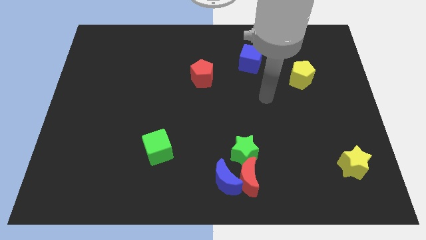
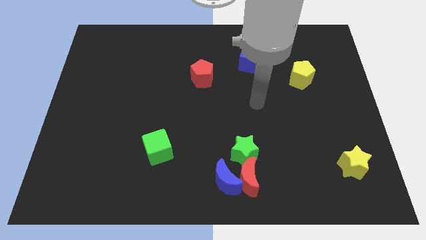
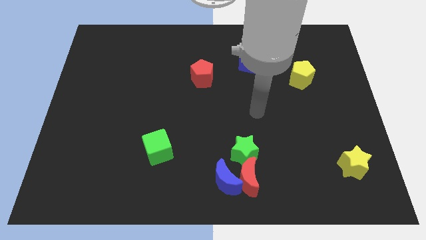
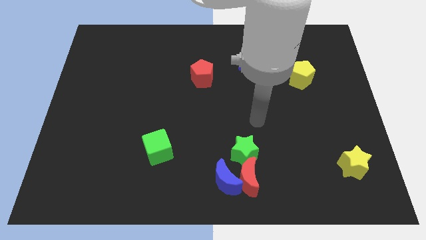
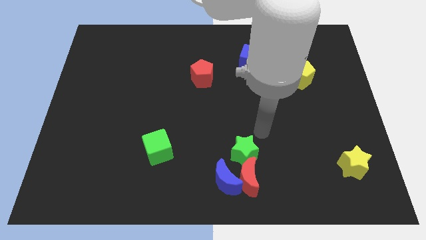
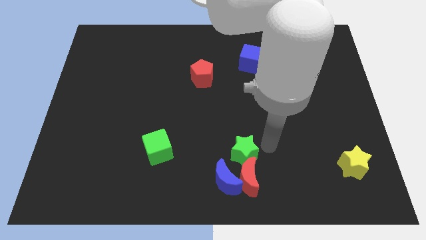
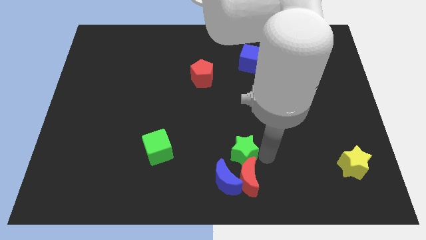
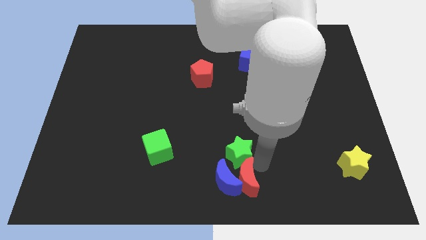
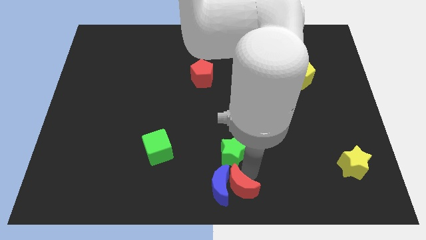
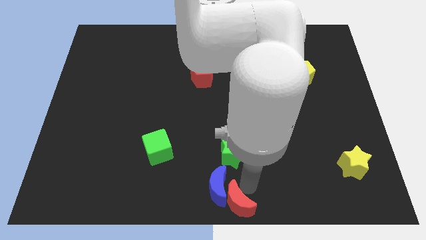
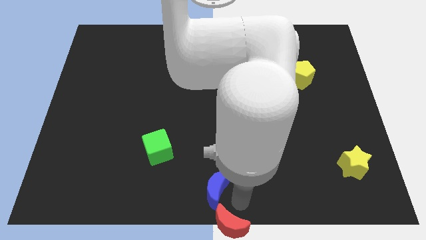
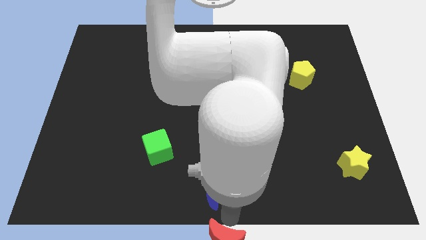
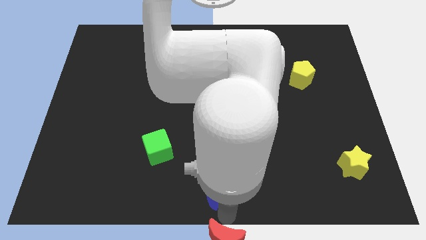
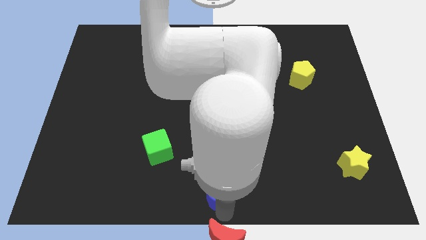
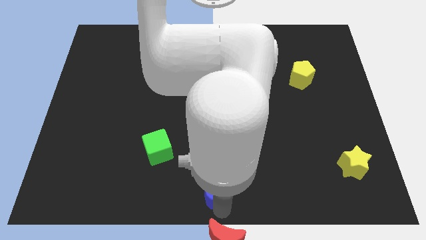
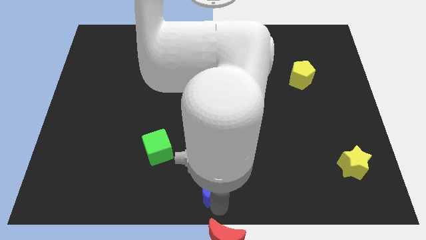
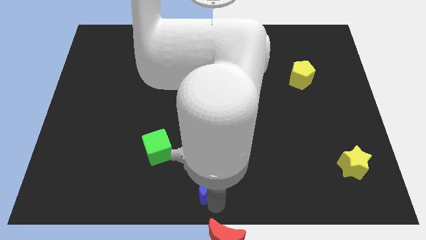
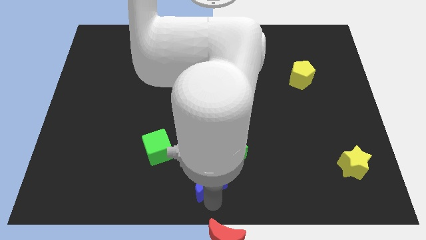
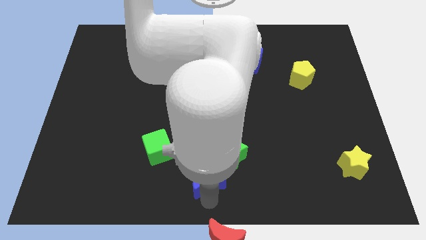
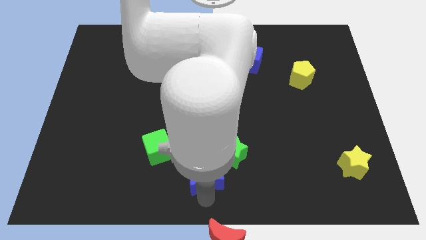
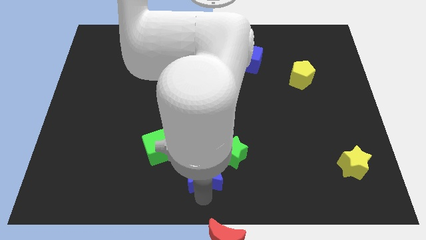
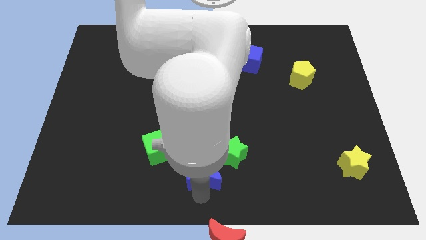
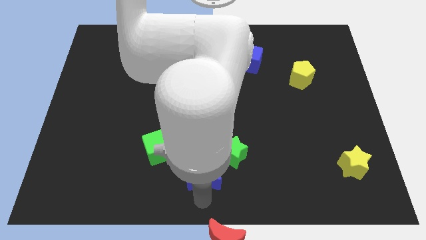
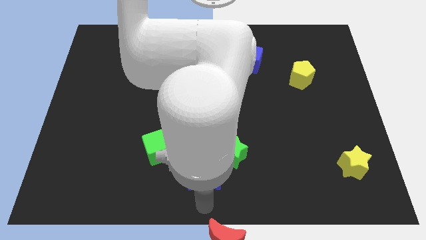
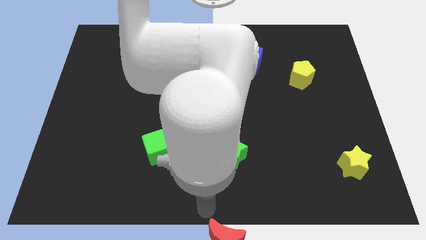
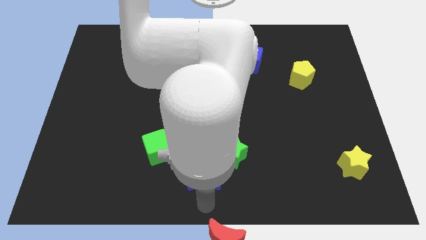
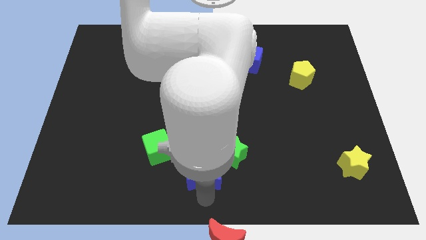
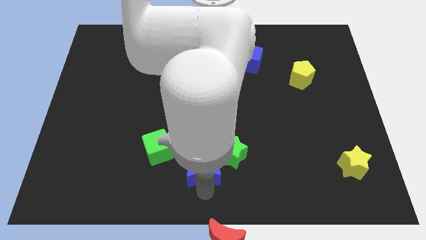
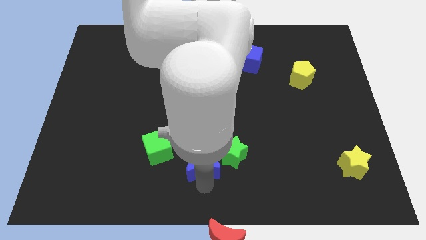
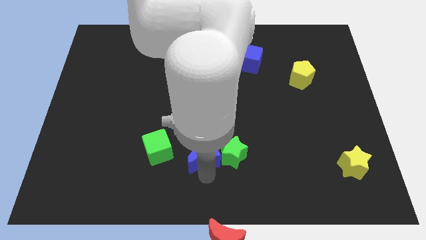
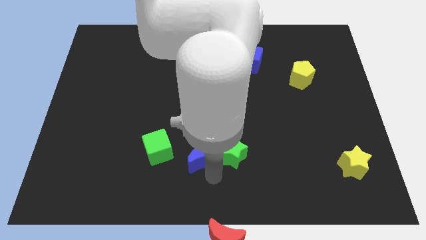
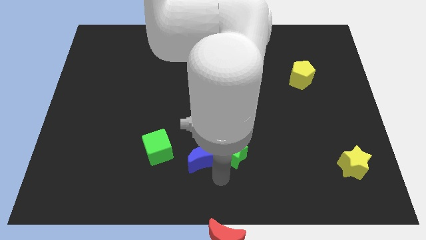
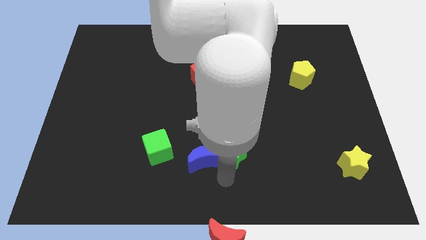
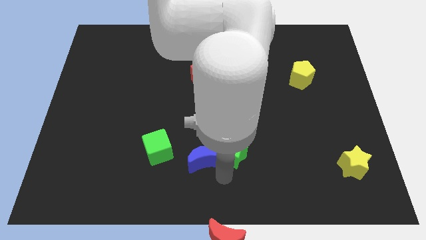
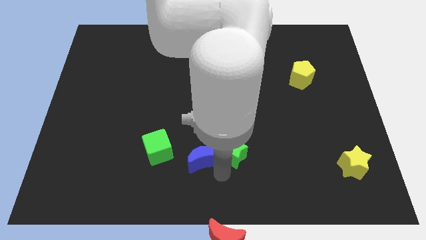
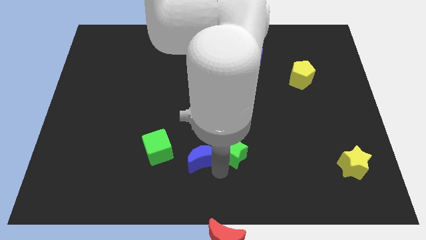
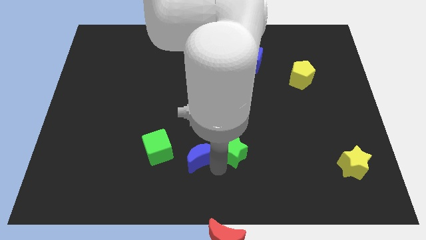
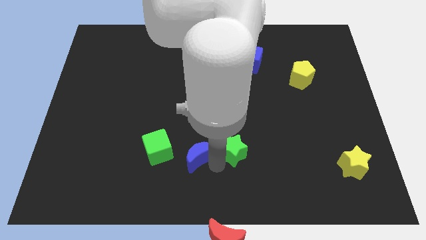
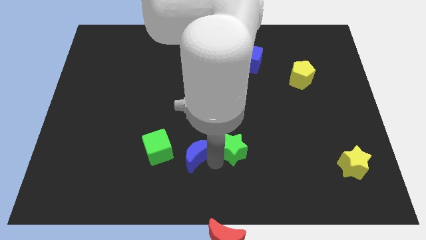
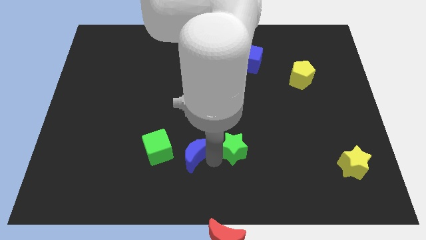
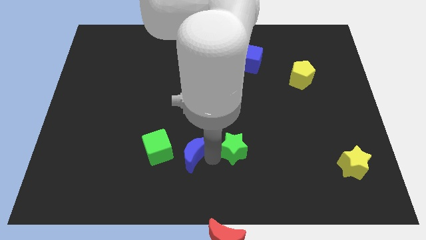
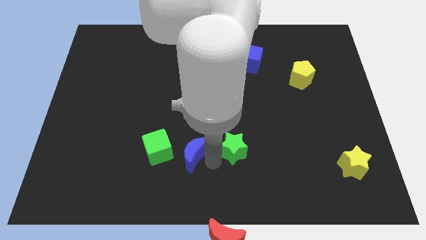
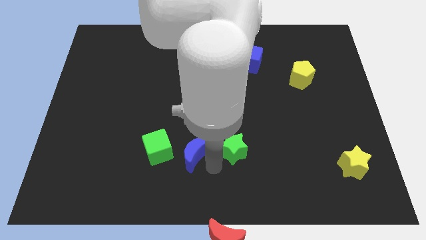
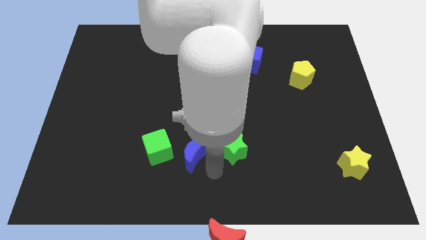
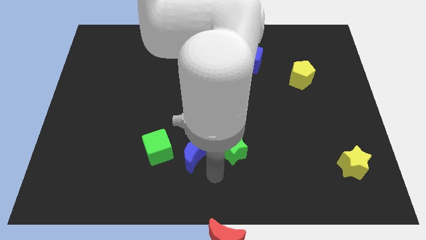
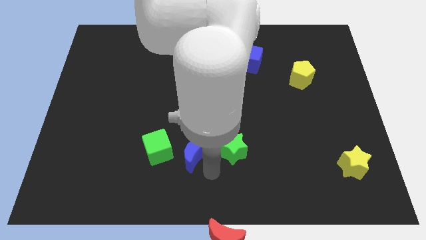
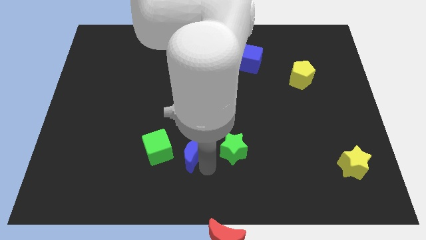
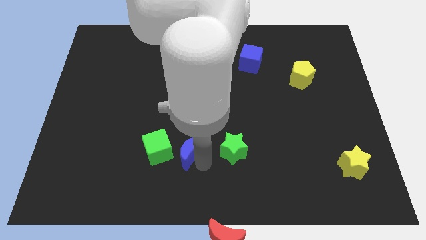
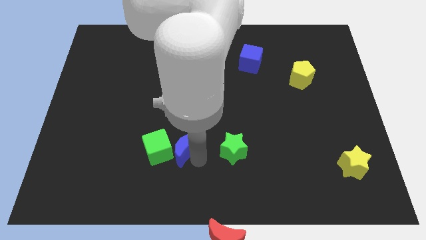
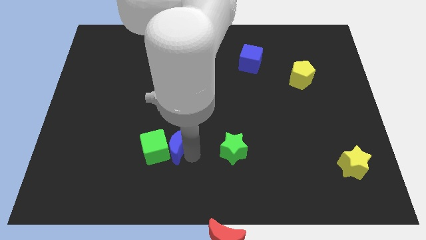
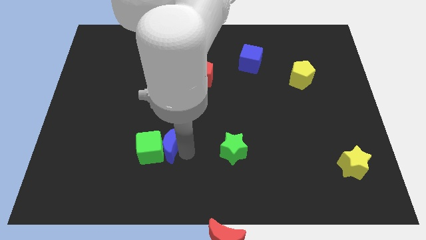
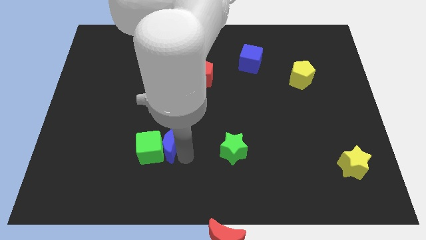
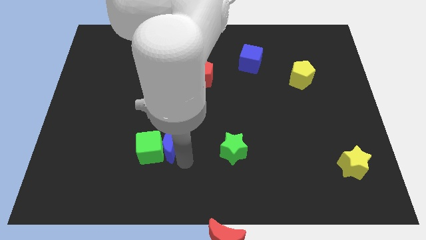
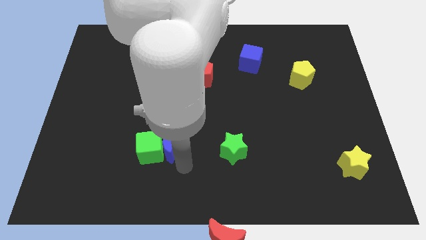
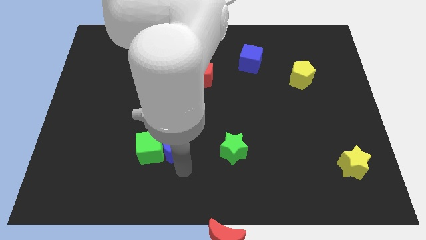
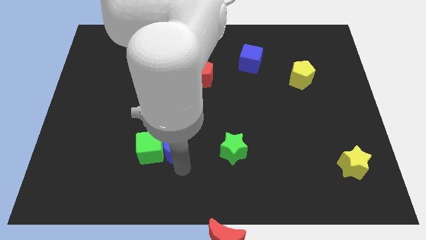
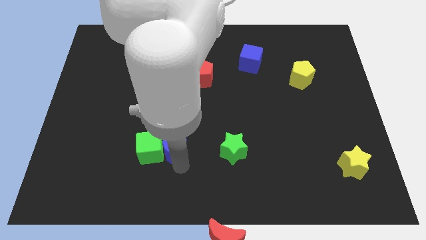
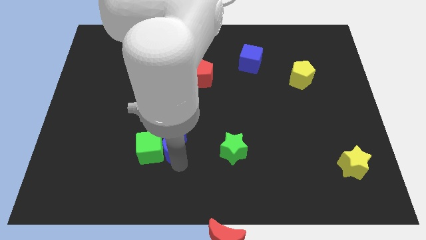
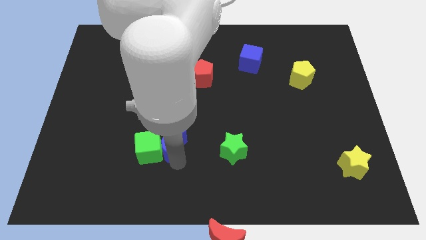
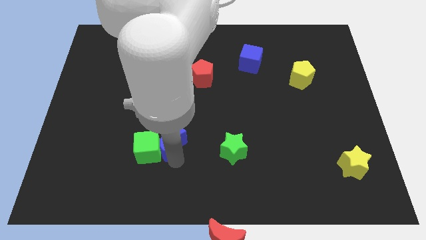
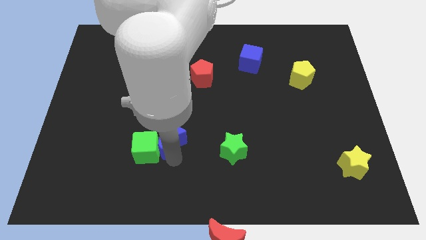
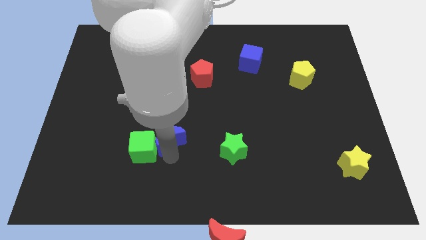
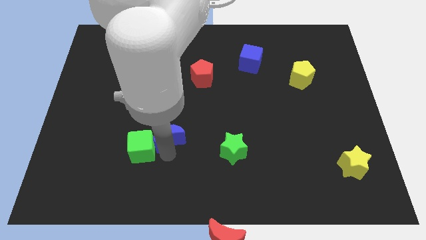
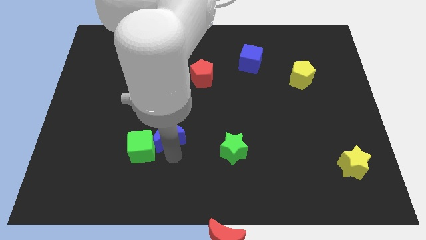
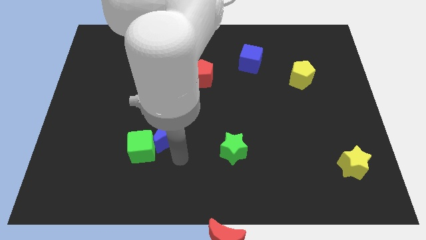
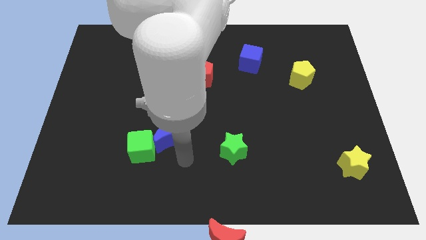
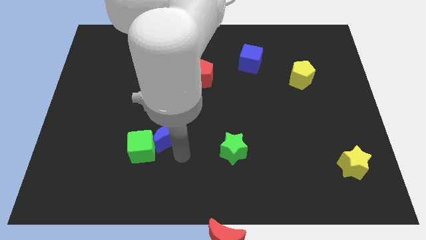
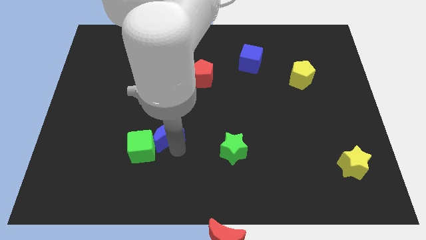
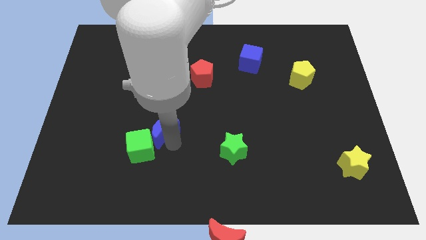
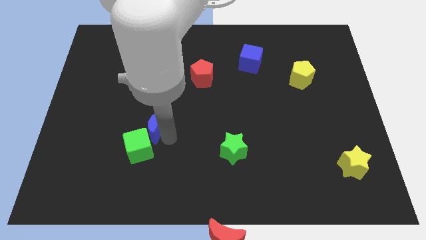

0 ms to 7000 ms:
push the blue moon up and to the left
